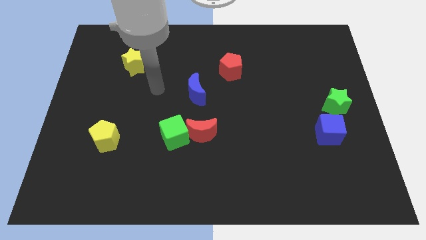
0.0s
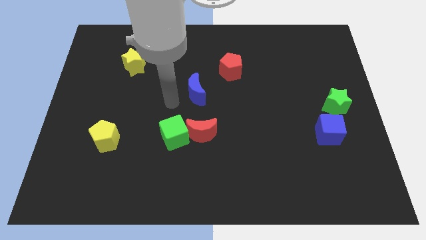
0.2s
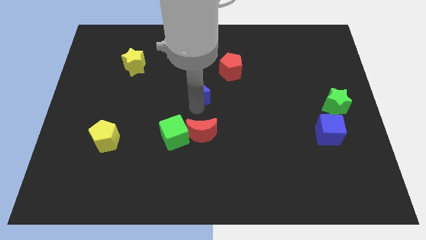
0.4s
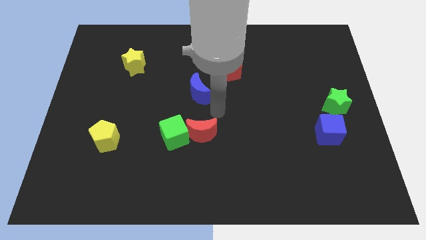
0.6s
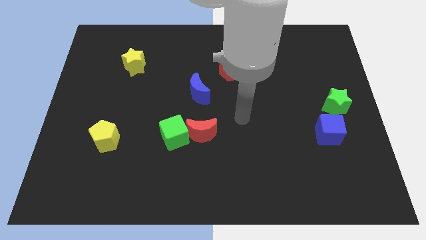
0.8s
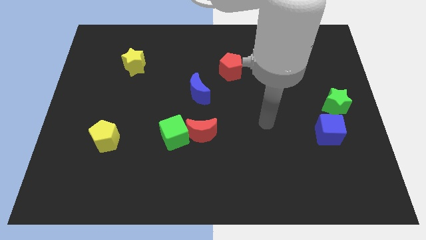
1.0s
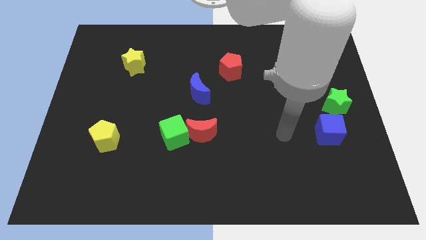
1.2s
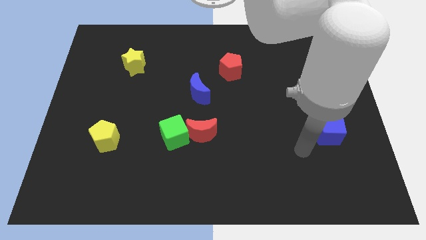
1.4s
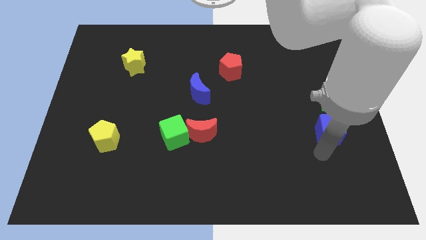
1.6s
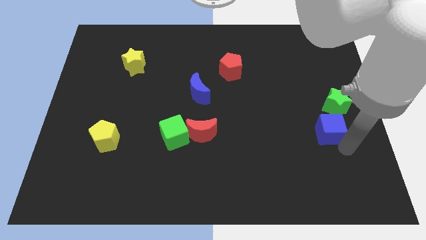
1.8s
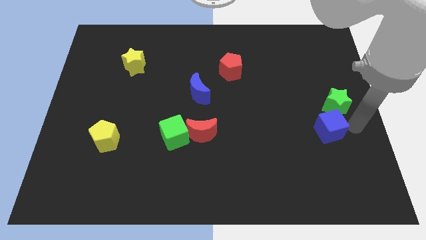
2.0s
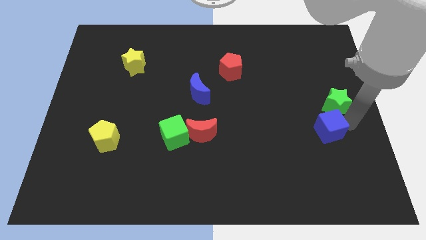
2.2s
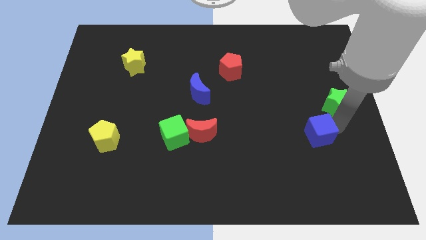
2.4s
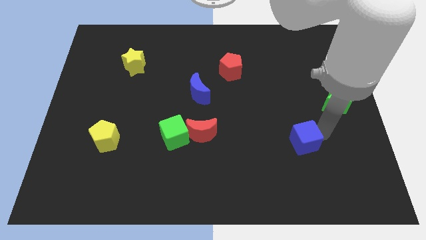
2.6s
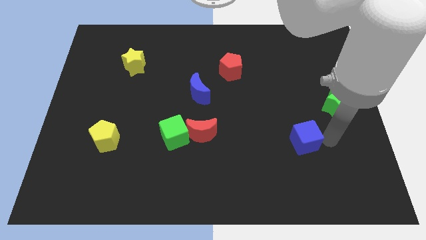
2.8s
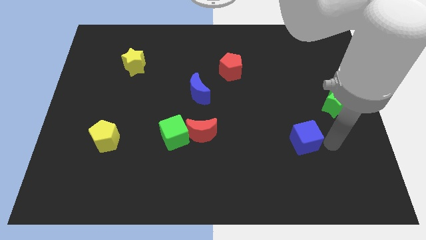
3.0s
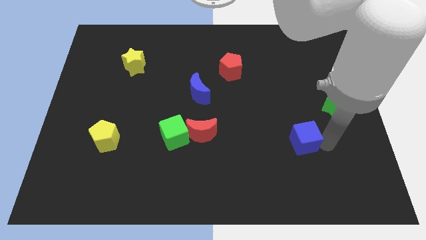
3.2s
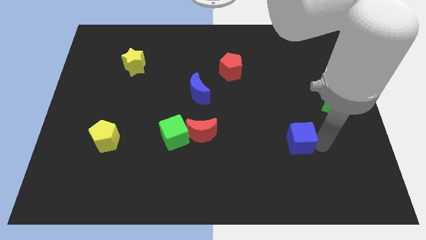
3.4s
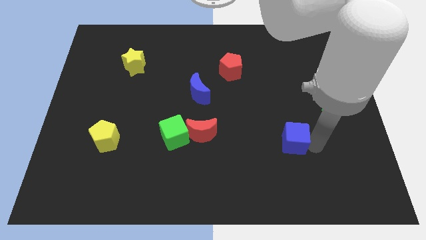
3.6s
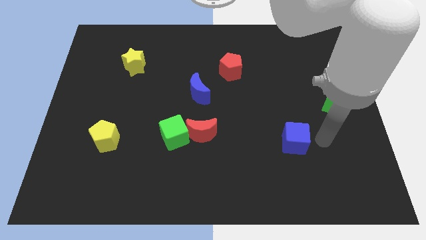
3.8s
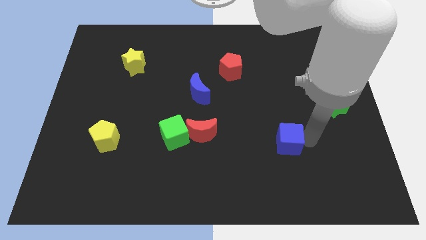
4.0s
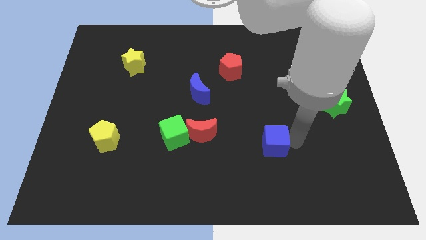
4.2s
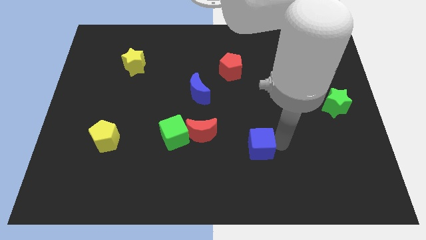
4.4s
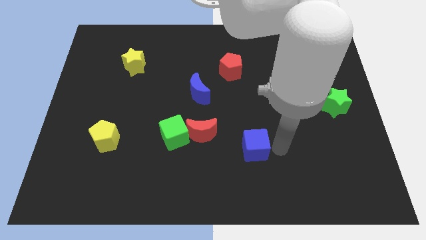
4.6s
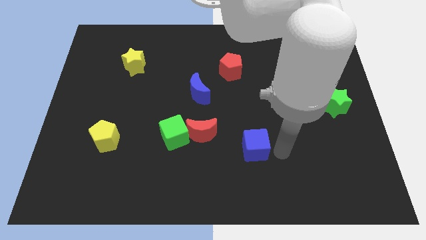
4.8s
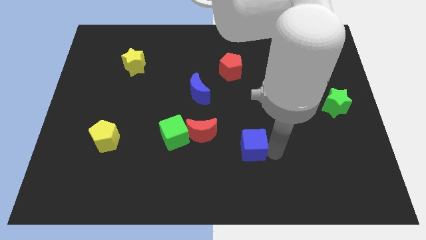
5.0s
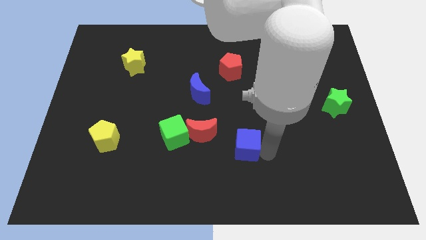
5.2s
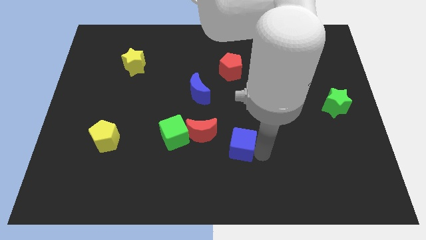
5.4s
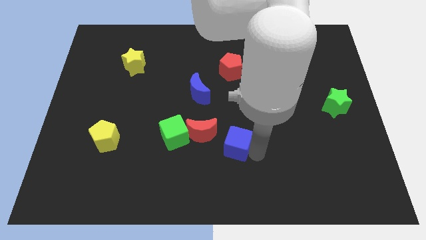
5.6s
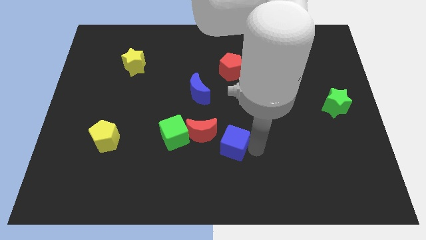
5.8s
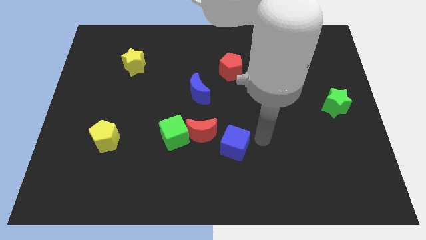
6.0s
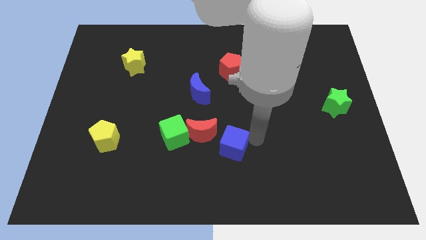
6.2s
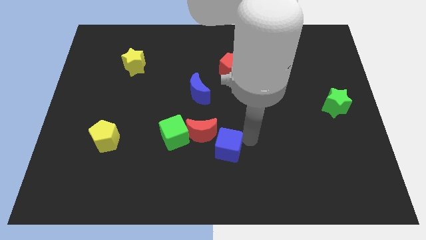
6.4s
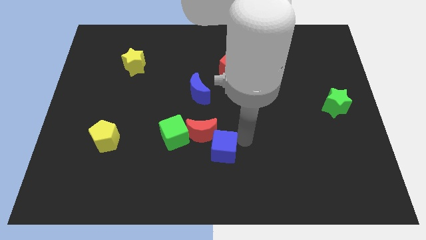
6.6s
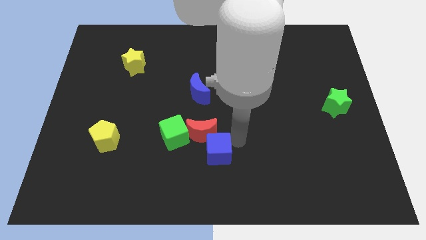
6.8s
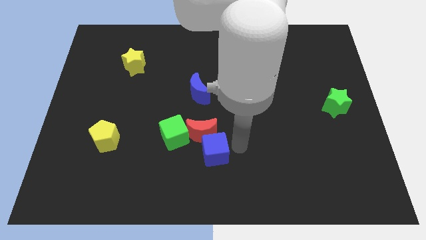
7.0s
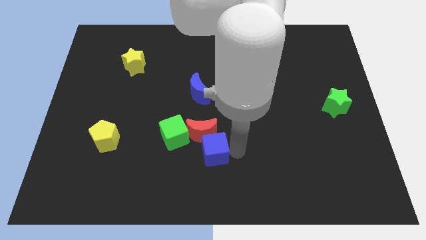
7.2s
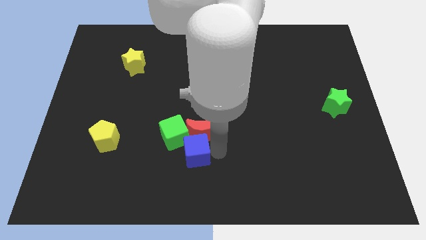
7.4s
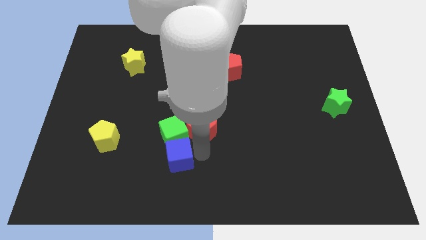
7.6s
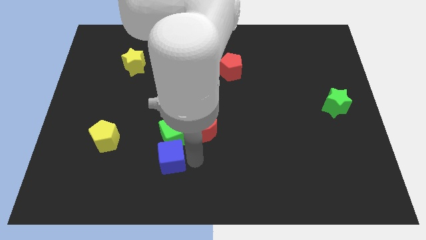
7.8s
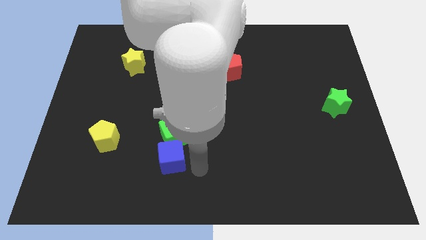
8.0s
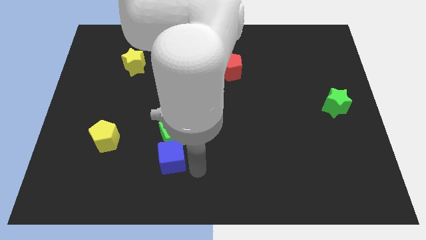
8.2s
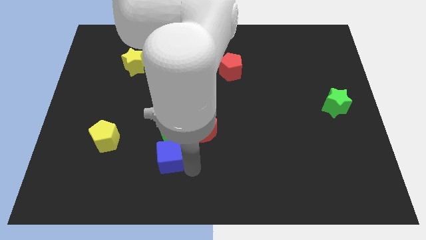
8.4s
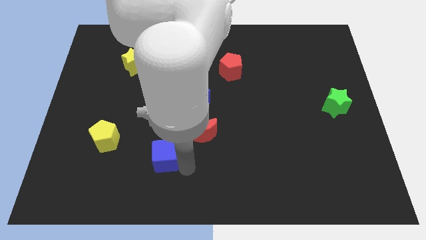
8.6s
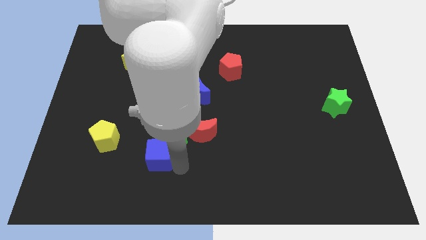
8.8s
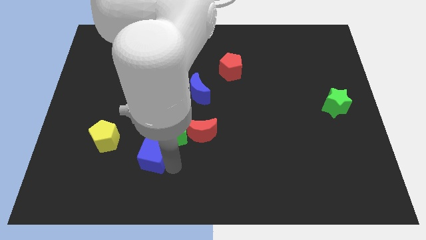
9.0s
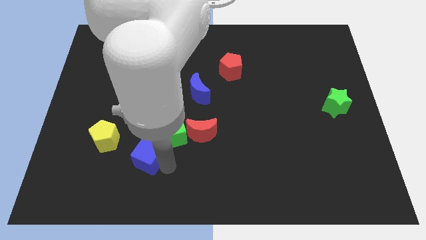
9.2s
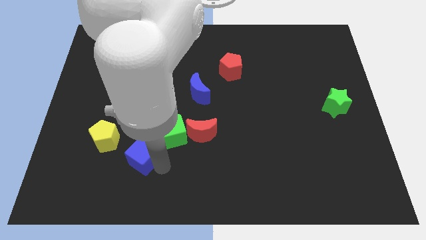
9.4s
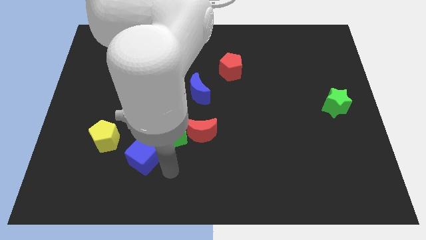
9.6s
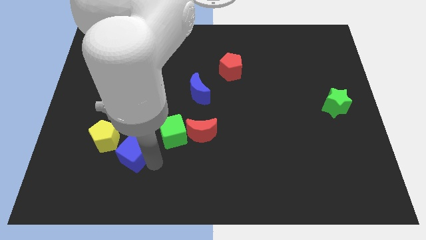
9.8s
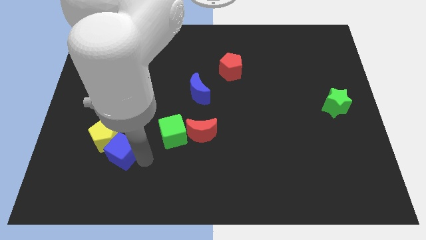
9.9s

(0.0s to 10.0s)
push the blue cube next to the yellow pentagon

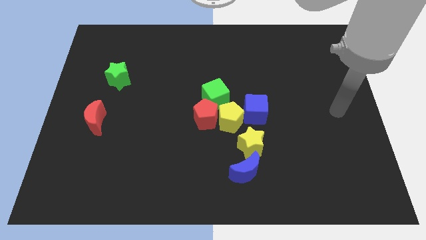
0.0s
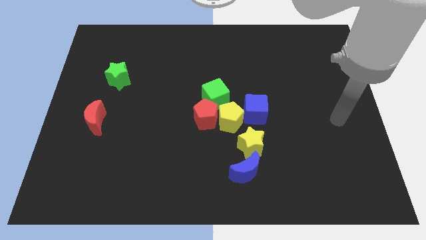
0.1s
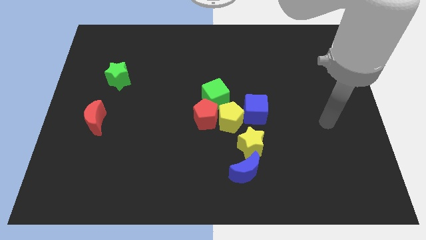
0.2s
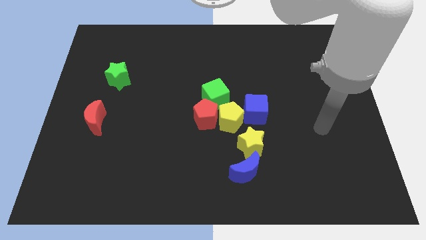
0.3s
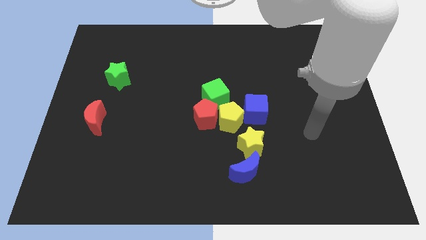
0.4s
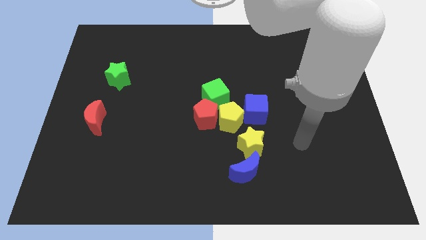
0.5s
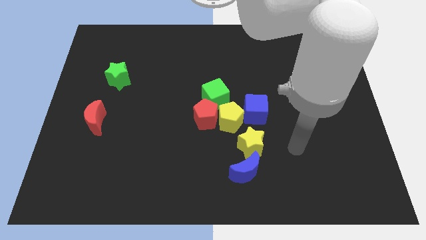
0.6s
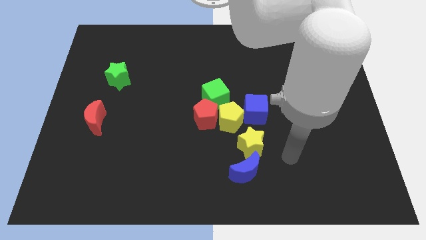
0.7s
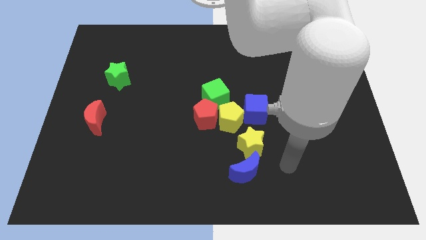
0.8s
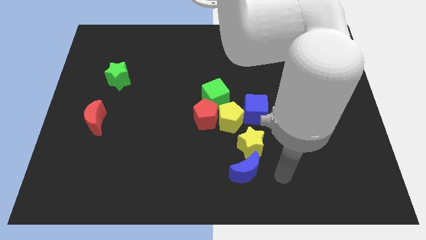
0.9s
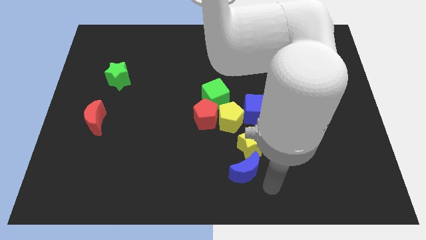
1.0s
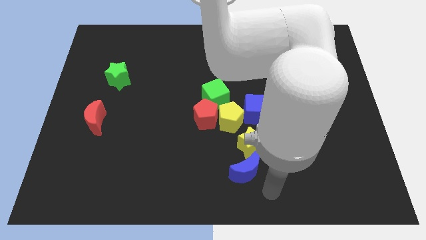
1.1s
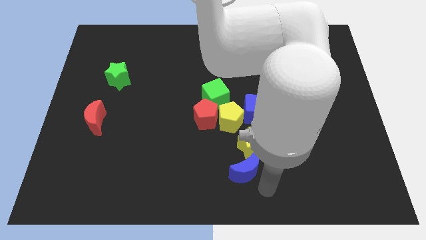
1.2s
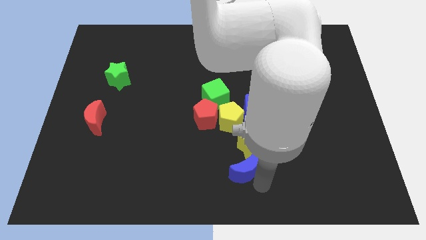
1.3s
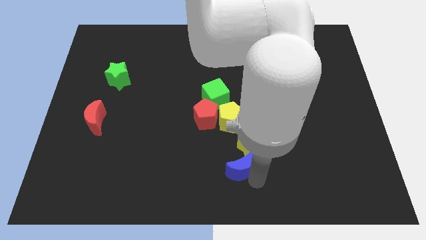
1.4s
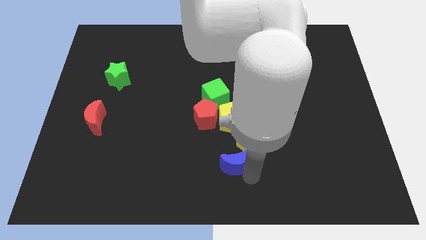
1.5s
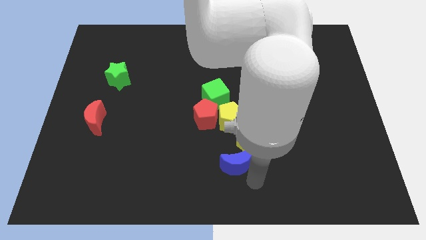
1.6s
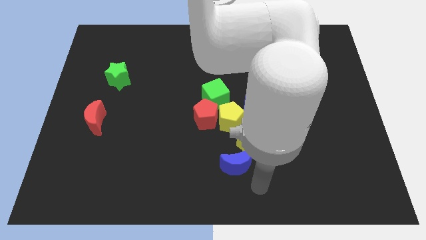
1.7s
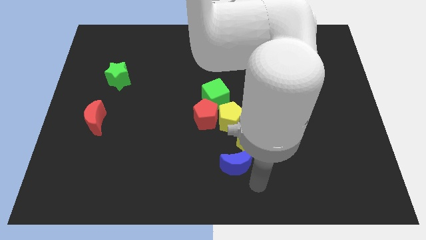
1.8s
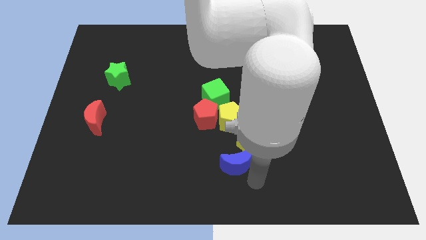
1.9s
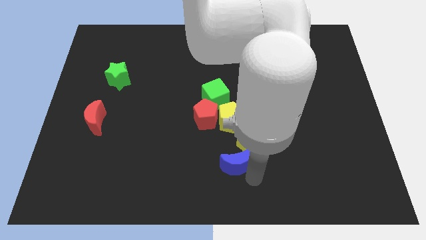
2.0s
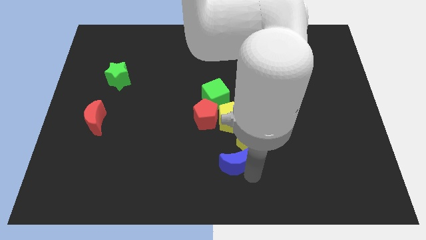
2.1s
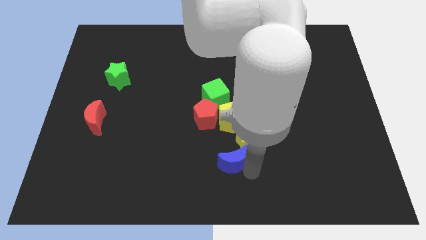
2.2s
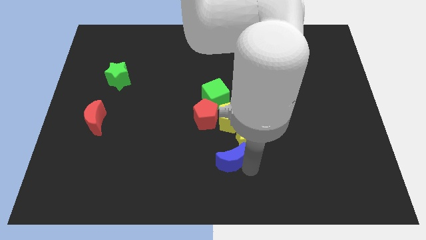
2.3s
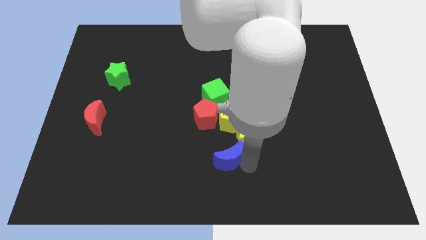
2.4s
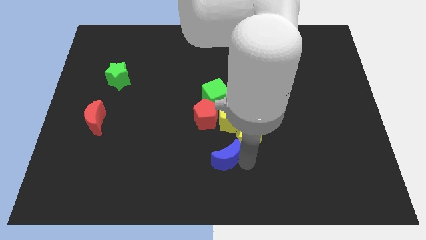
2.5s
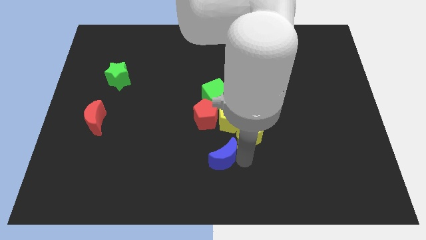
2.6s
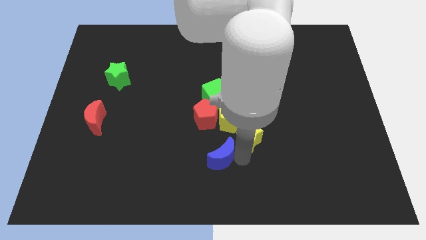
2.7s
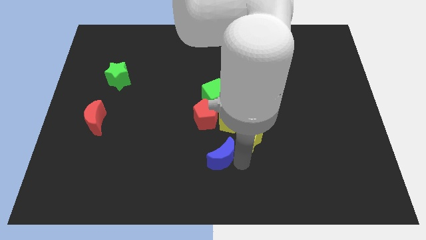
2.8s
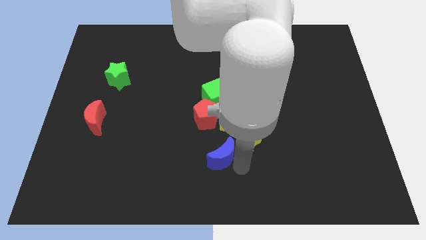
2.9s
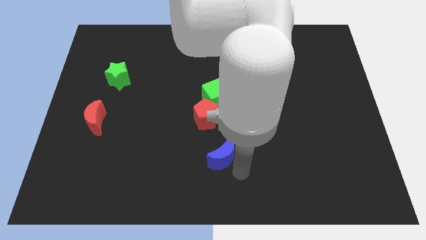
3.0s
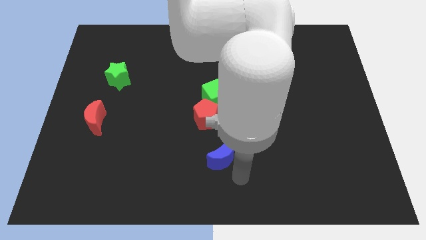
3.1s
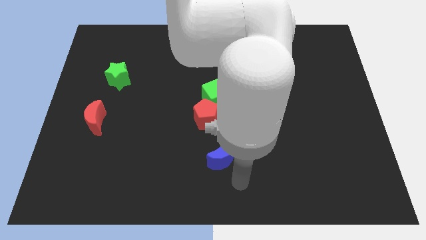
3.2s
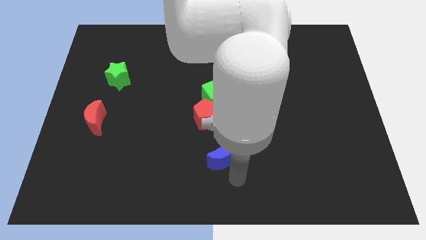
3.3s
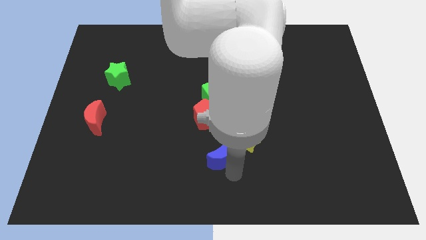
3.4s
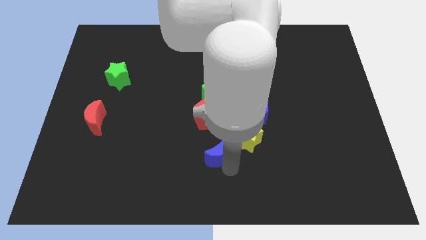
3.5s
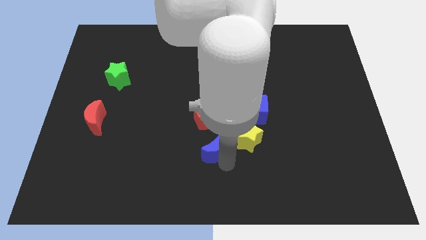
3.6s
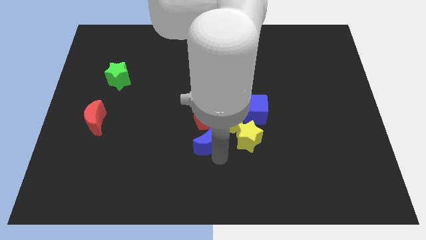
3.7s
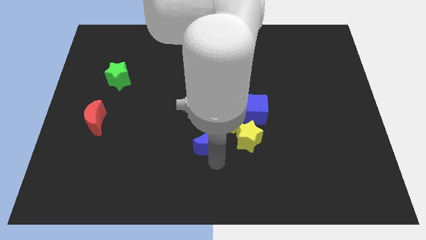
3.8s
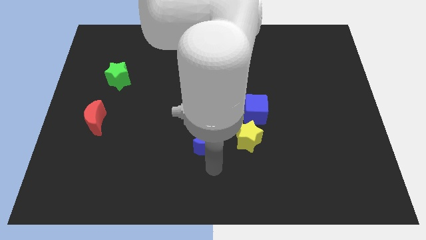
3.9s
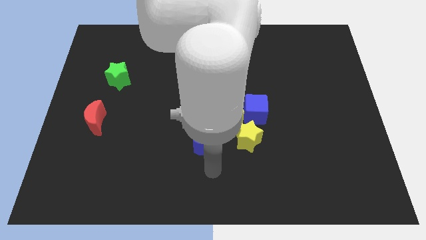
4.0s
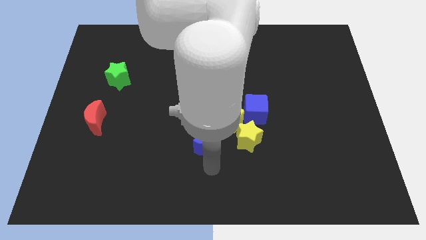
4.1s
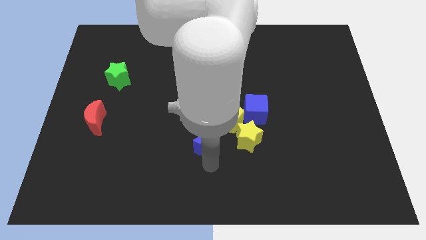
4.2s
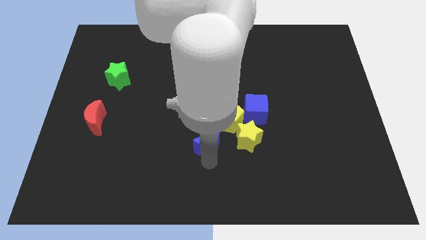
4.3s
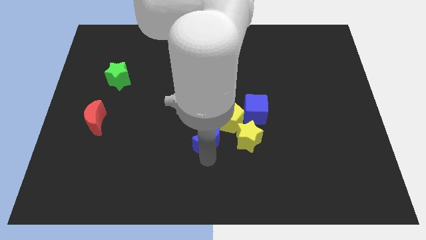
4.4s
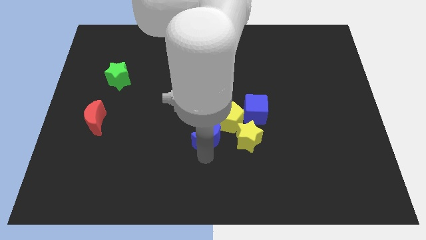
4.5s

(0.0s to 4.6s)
slide the blue moon towards the red pentagon
